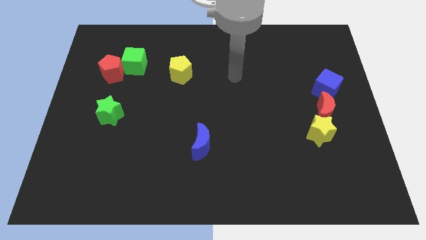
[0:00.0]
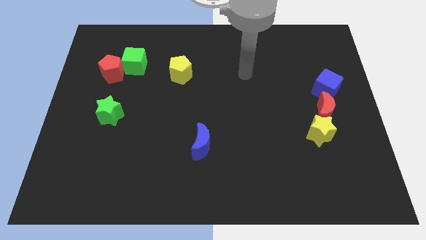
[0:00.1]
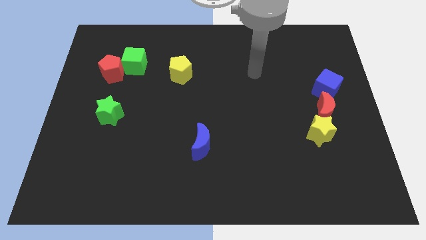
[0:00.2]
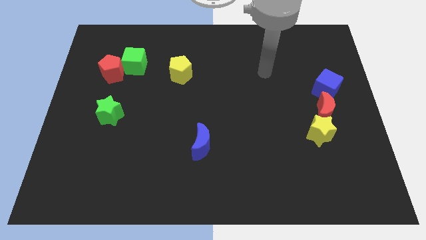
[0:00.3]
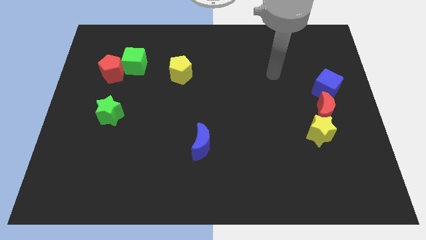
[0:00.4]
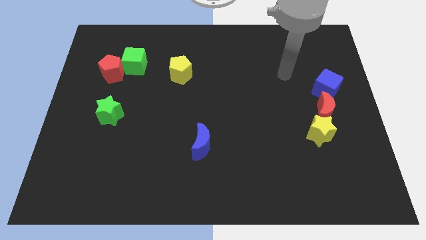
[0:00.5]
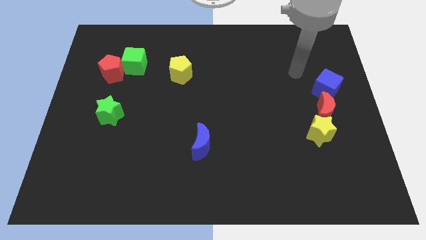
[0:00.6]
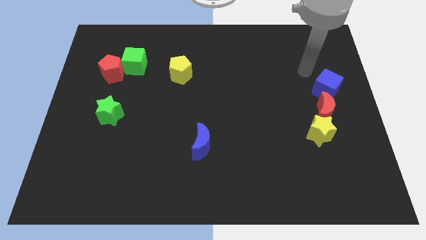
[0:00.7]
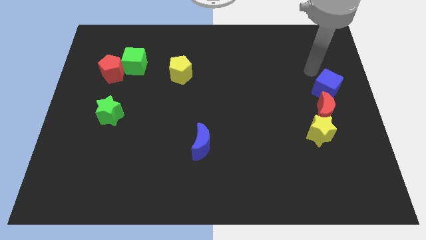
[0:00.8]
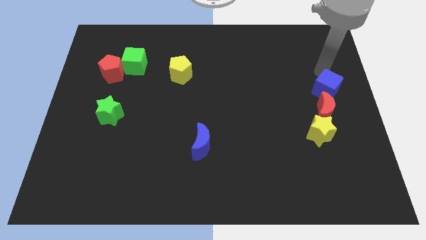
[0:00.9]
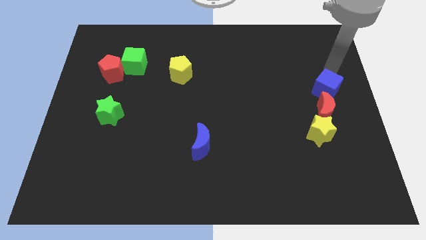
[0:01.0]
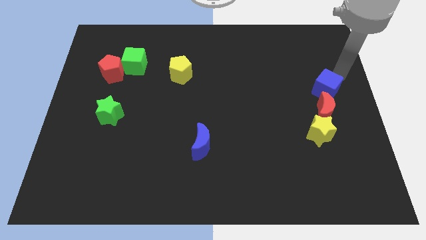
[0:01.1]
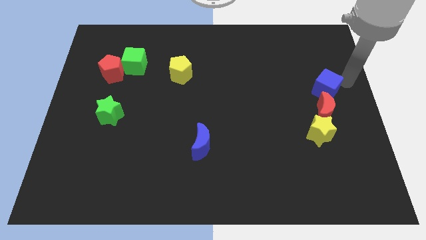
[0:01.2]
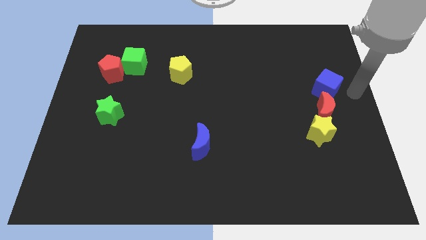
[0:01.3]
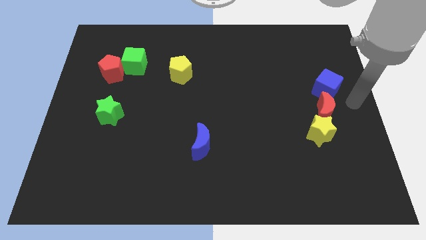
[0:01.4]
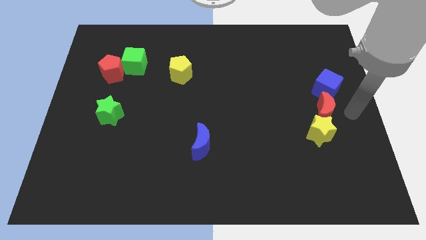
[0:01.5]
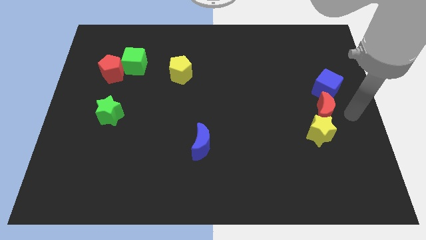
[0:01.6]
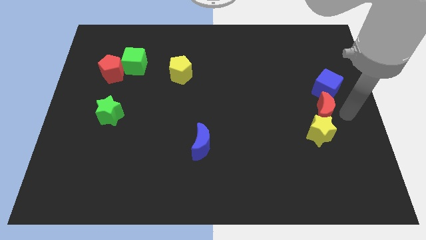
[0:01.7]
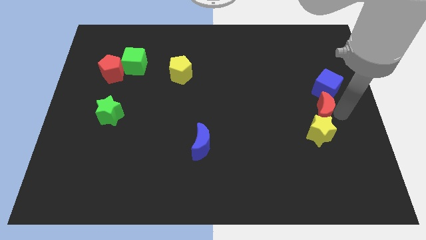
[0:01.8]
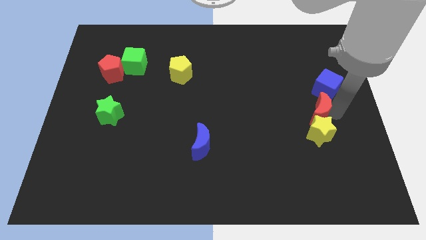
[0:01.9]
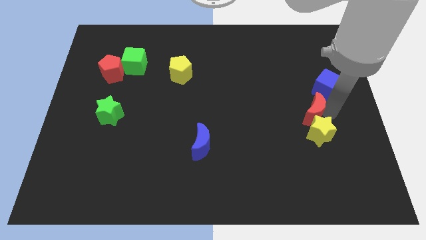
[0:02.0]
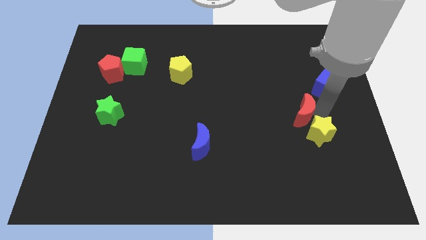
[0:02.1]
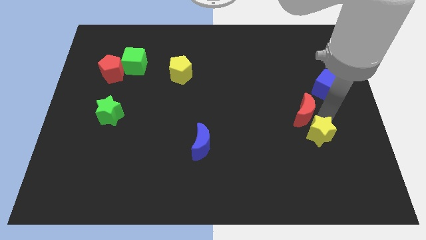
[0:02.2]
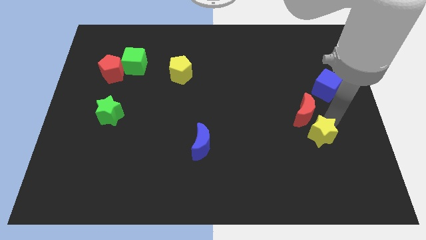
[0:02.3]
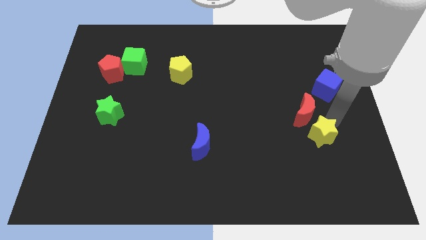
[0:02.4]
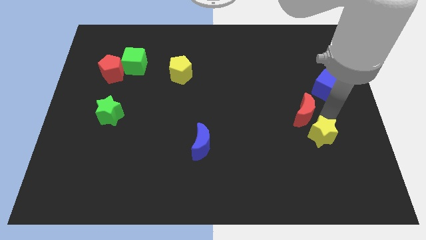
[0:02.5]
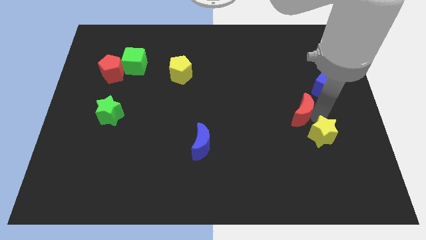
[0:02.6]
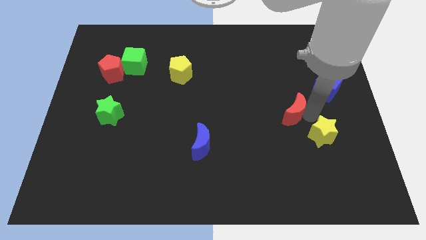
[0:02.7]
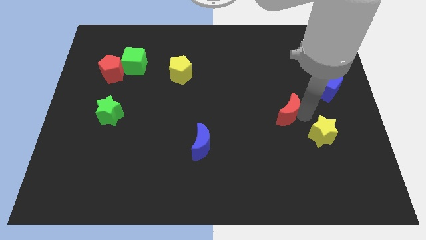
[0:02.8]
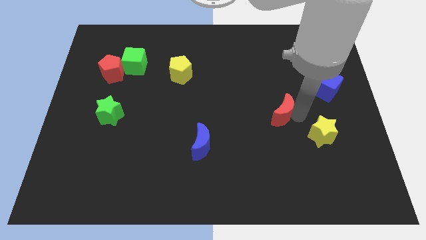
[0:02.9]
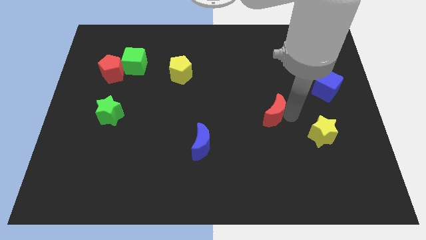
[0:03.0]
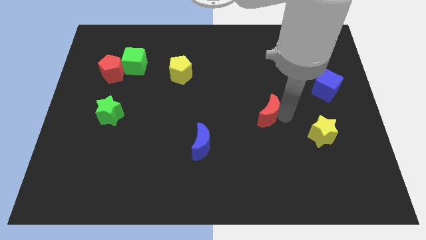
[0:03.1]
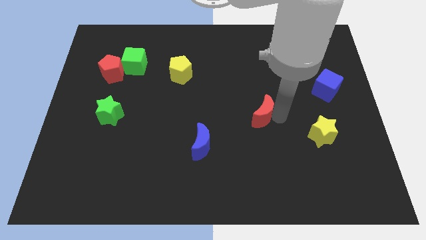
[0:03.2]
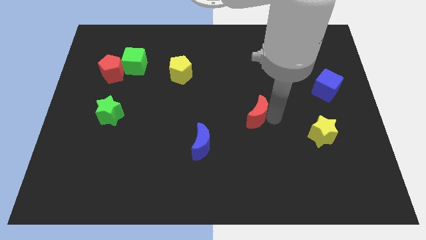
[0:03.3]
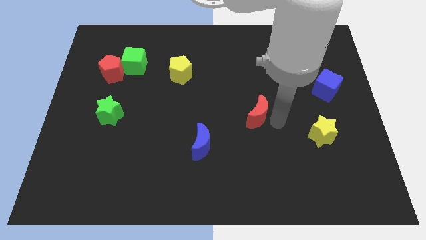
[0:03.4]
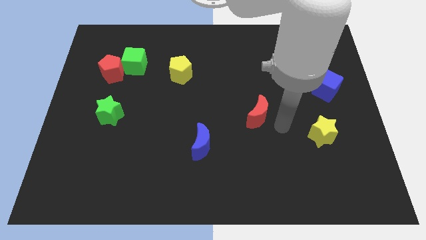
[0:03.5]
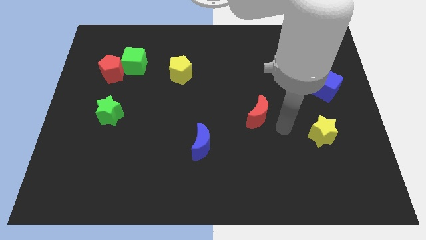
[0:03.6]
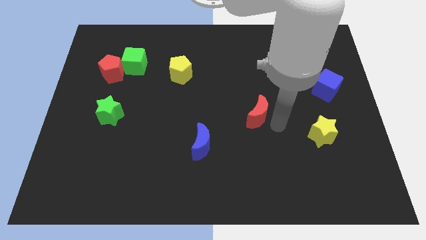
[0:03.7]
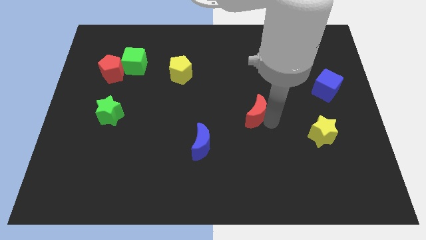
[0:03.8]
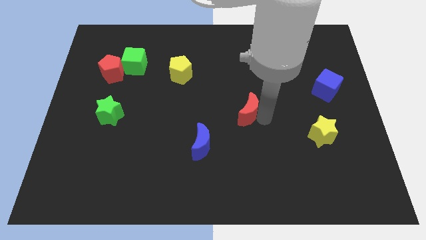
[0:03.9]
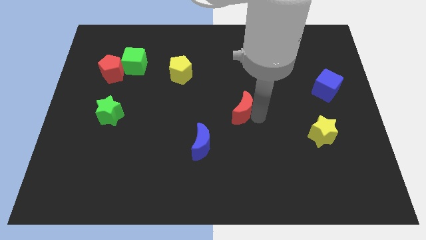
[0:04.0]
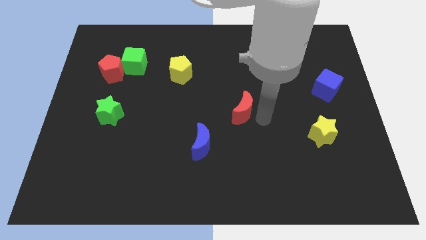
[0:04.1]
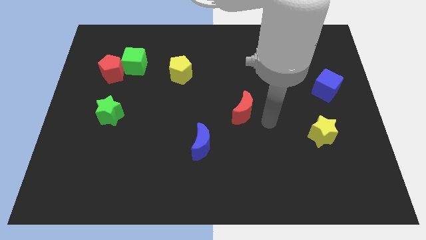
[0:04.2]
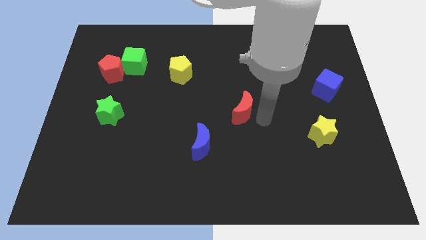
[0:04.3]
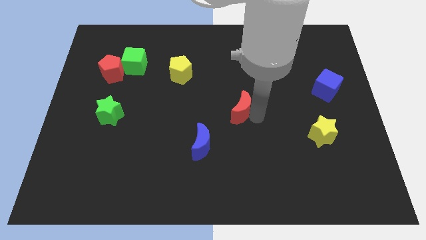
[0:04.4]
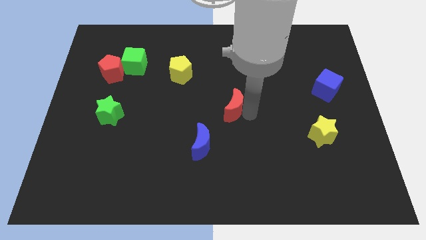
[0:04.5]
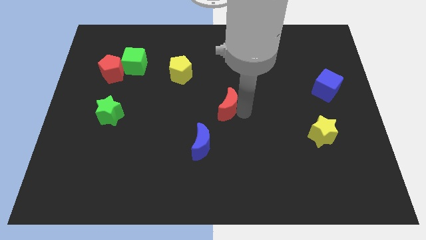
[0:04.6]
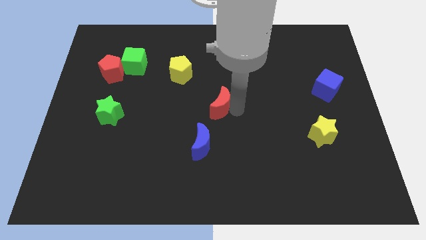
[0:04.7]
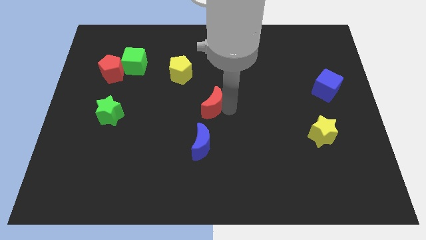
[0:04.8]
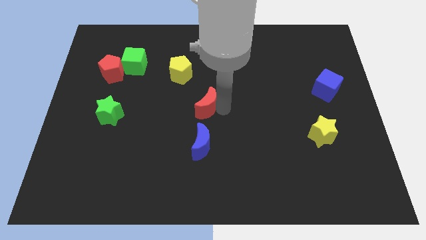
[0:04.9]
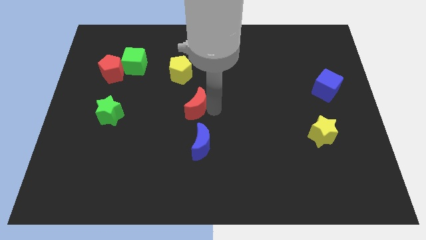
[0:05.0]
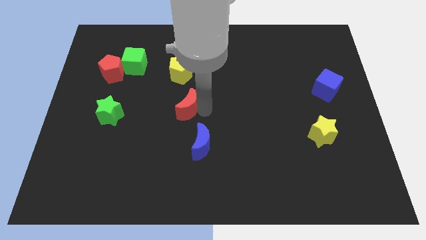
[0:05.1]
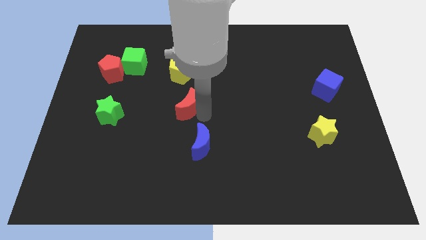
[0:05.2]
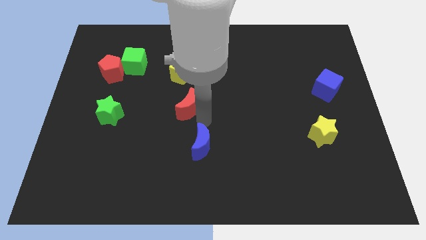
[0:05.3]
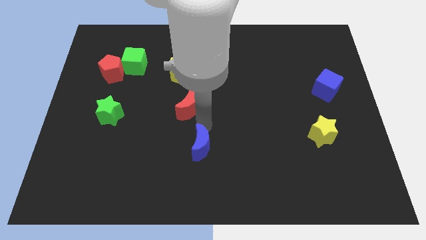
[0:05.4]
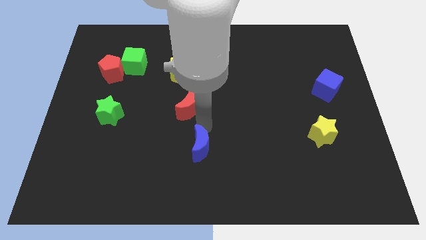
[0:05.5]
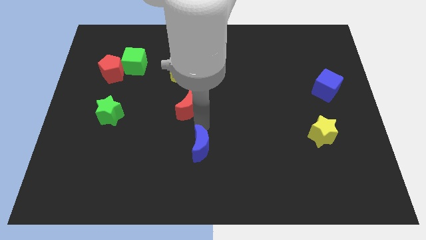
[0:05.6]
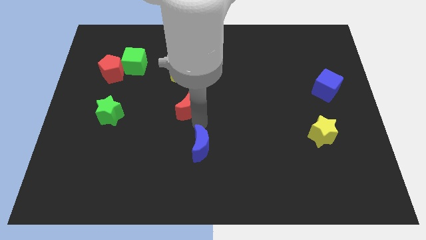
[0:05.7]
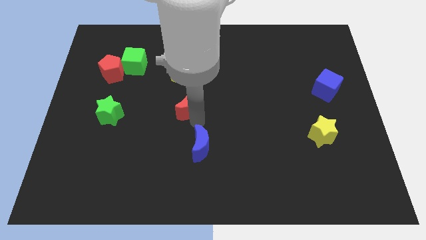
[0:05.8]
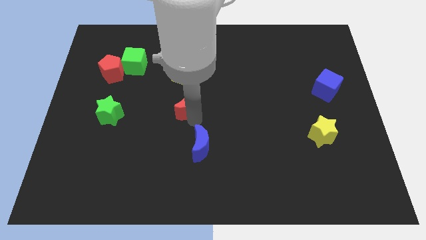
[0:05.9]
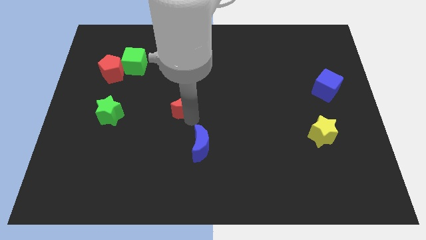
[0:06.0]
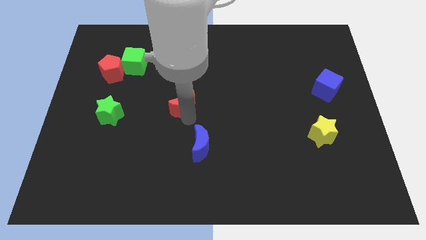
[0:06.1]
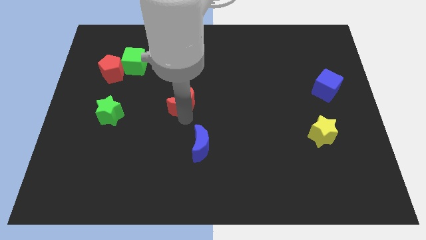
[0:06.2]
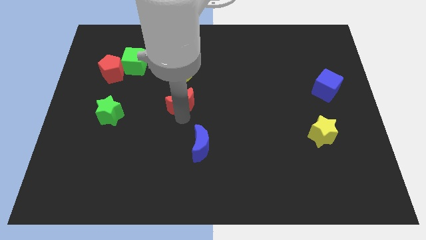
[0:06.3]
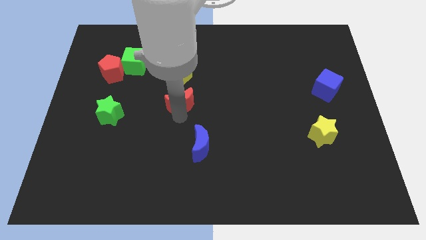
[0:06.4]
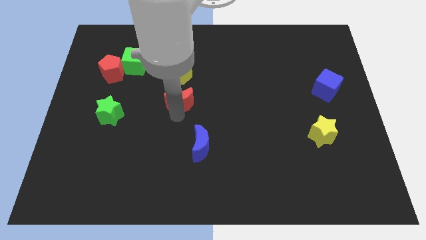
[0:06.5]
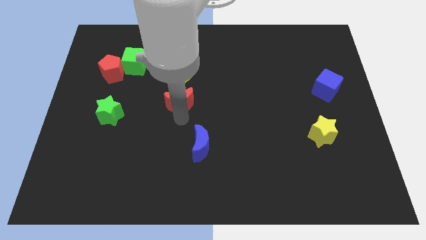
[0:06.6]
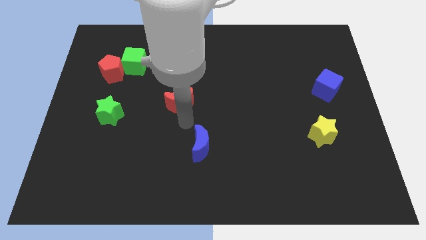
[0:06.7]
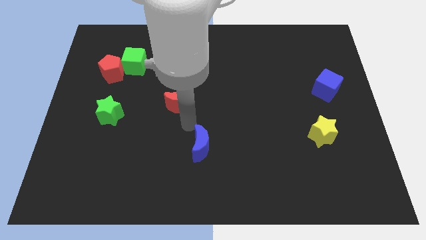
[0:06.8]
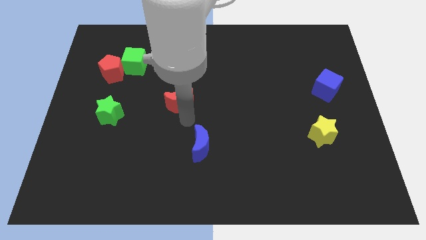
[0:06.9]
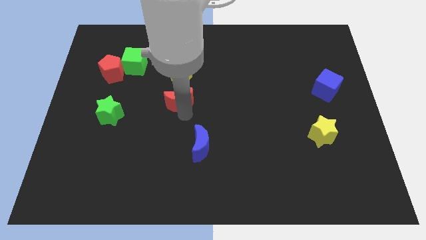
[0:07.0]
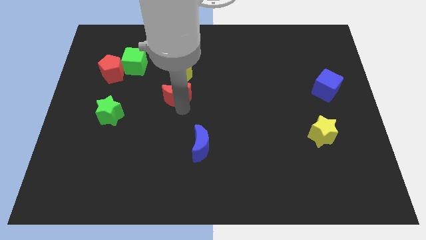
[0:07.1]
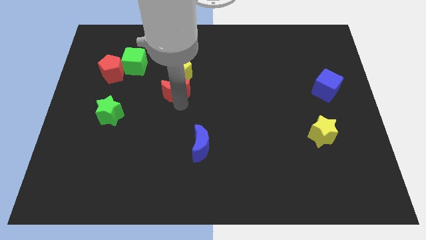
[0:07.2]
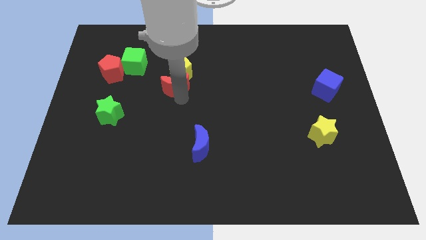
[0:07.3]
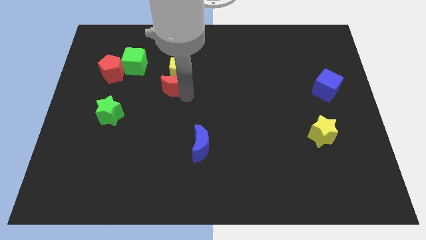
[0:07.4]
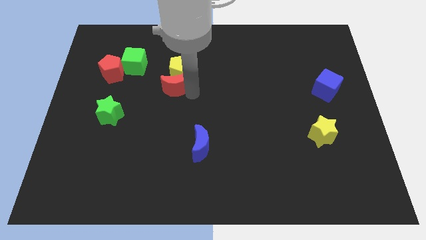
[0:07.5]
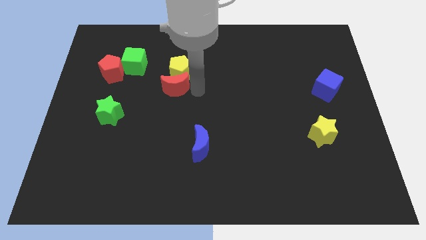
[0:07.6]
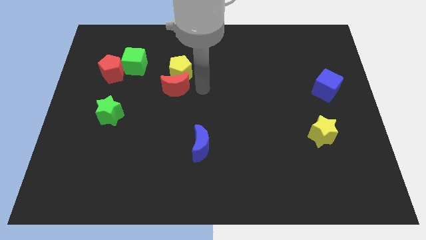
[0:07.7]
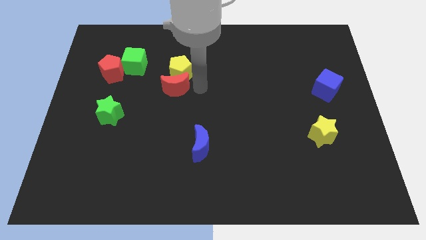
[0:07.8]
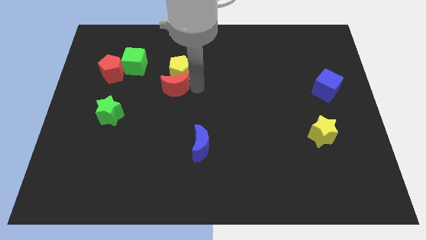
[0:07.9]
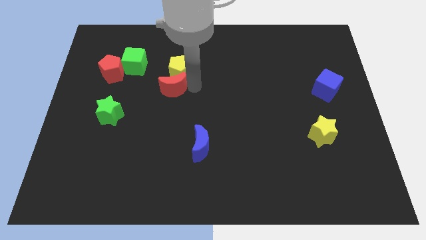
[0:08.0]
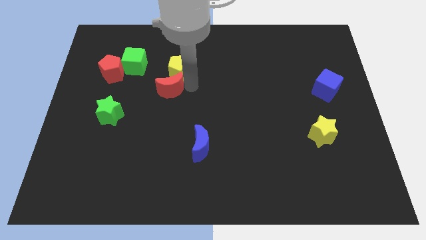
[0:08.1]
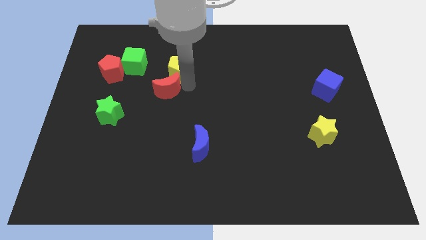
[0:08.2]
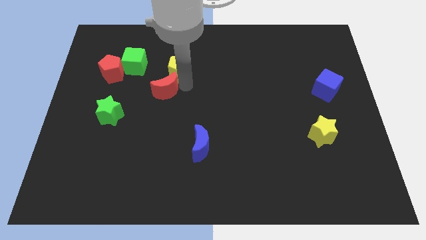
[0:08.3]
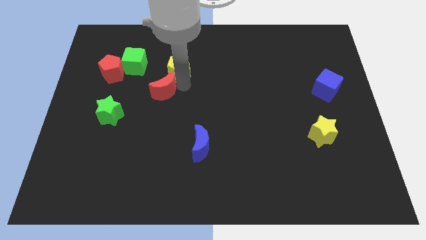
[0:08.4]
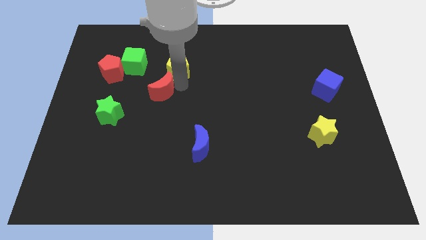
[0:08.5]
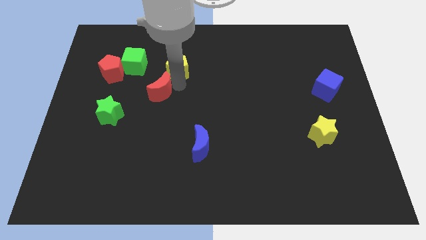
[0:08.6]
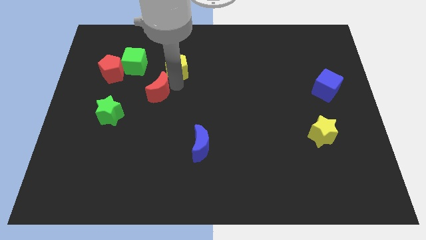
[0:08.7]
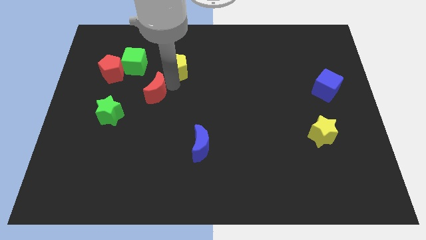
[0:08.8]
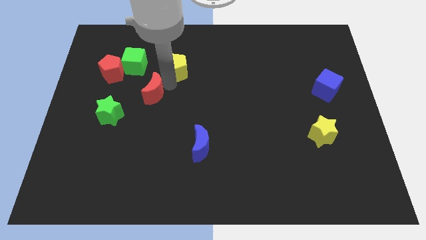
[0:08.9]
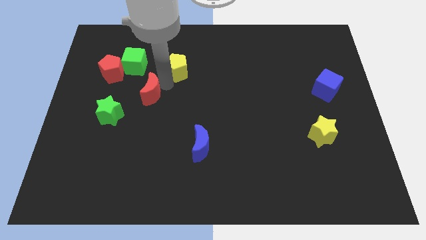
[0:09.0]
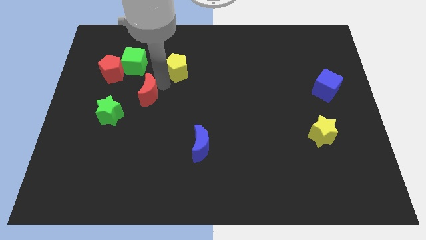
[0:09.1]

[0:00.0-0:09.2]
slide the red moon diagonally down and to the right of the red pentagon
